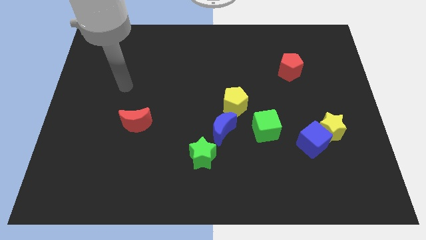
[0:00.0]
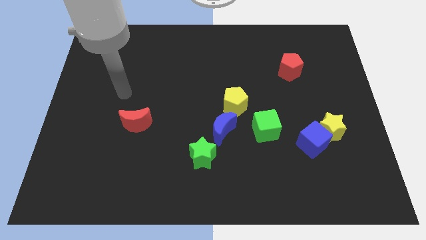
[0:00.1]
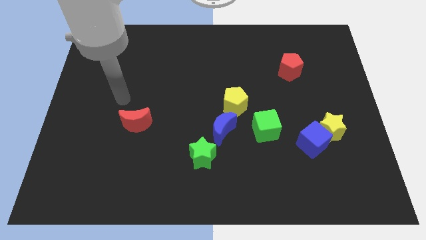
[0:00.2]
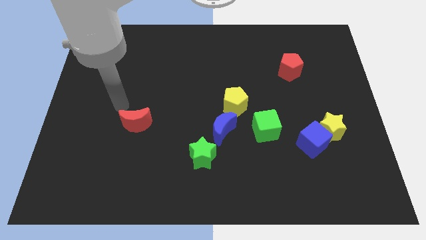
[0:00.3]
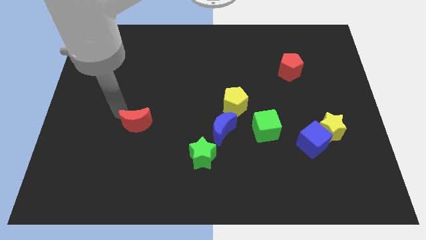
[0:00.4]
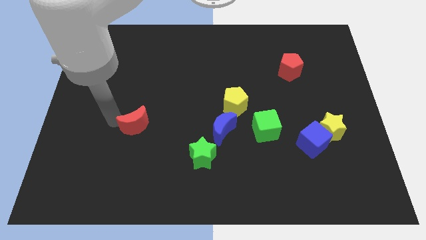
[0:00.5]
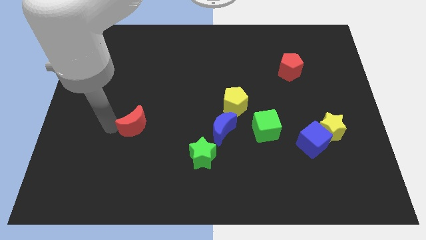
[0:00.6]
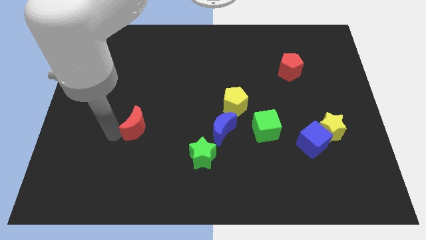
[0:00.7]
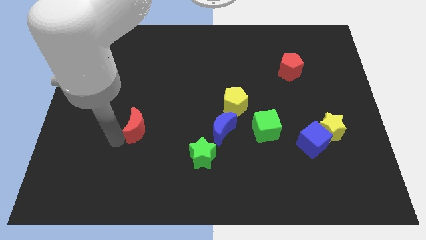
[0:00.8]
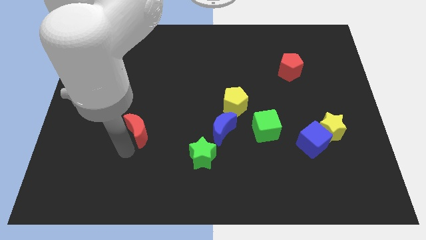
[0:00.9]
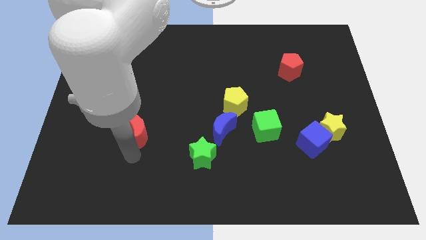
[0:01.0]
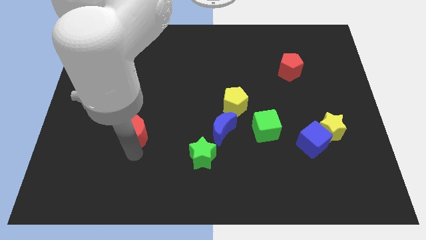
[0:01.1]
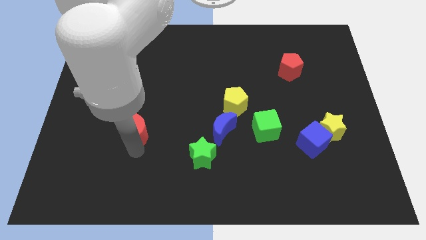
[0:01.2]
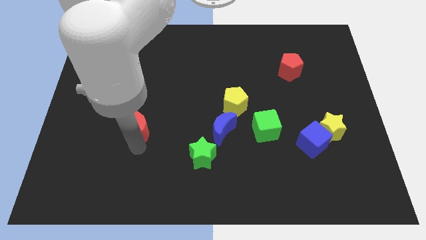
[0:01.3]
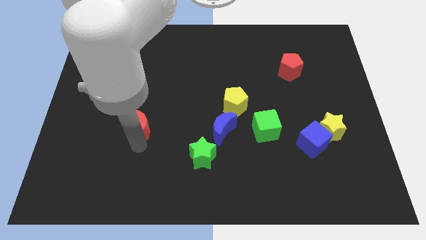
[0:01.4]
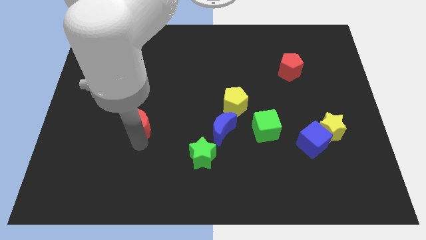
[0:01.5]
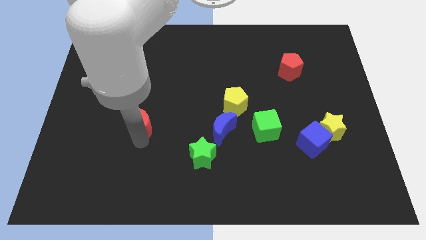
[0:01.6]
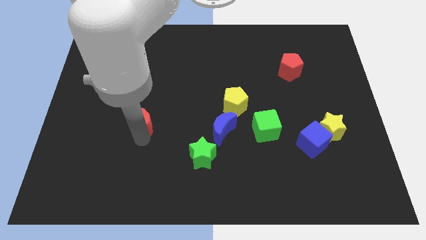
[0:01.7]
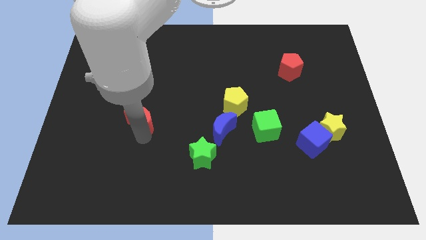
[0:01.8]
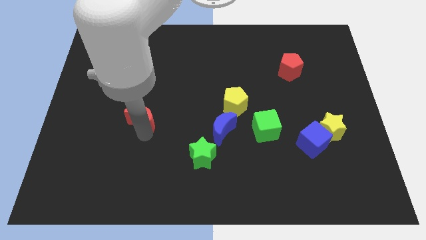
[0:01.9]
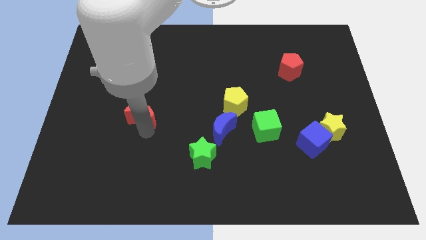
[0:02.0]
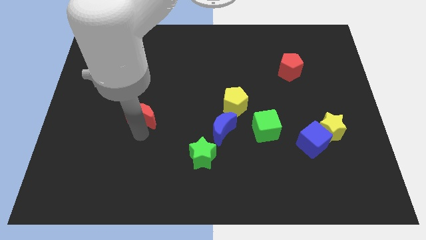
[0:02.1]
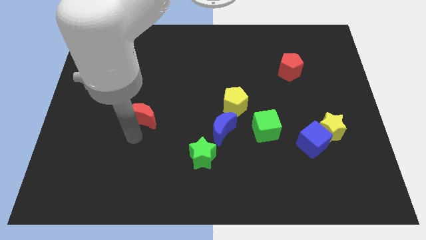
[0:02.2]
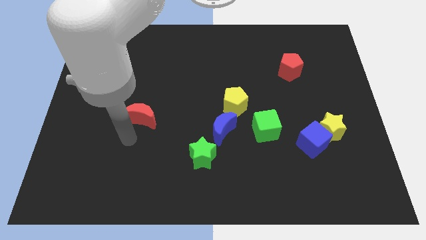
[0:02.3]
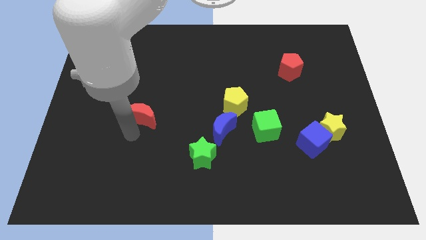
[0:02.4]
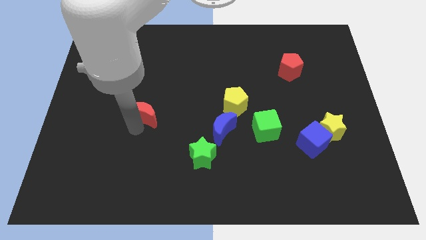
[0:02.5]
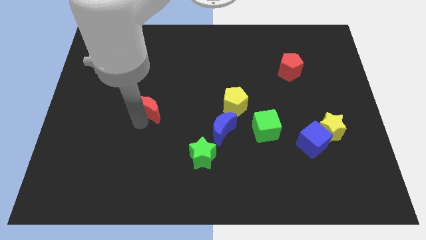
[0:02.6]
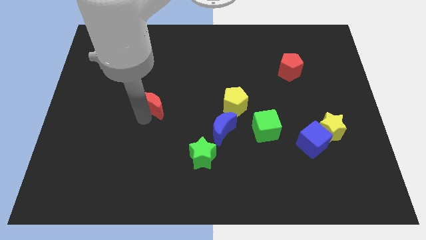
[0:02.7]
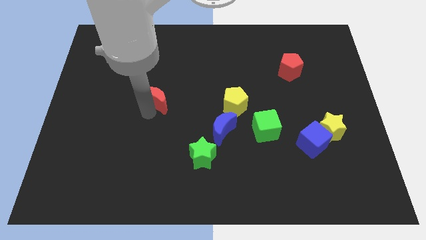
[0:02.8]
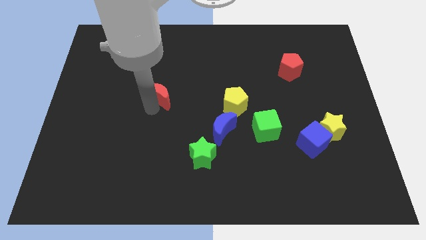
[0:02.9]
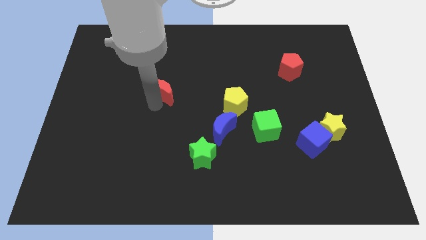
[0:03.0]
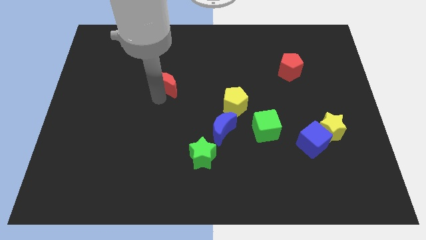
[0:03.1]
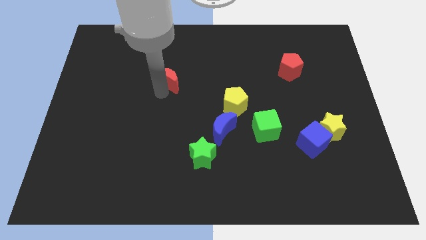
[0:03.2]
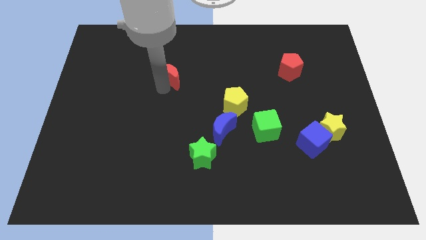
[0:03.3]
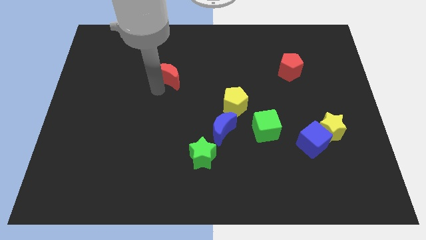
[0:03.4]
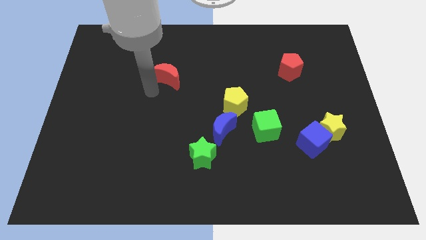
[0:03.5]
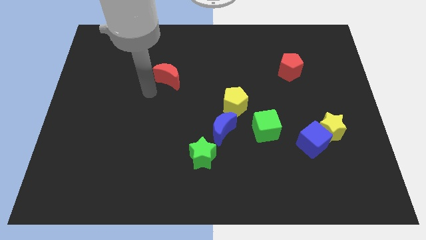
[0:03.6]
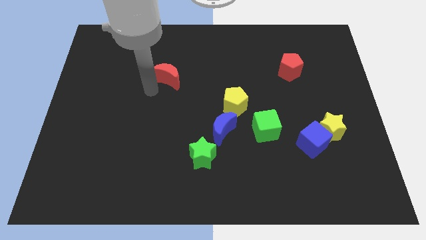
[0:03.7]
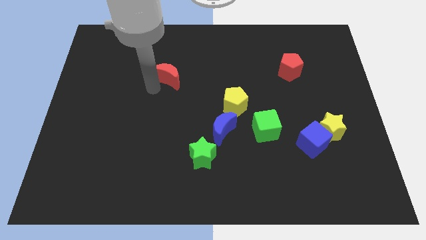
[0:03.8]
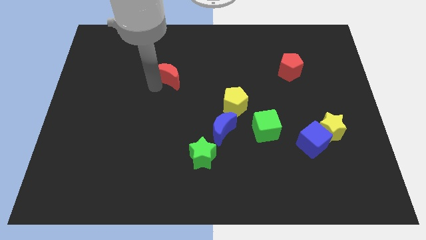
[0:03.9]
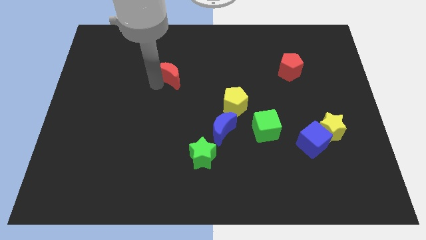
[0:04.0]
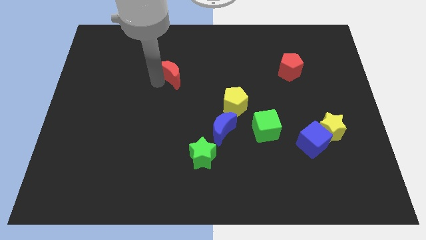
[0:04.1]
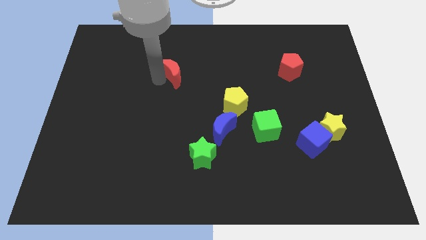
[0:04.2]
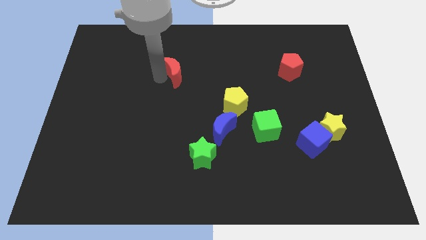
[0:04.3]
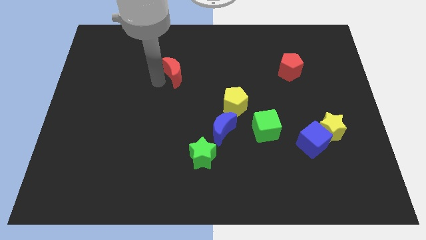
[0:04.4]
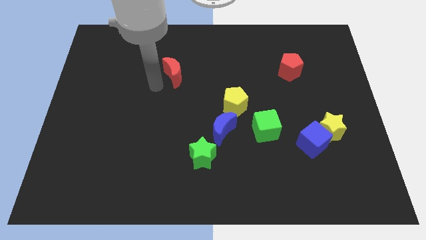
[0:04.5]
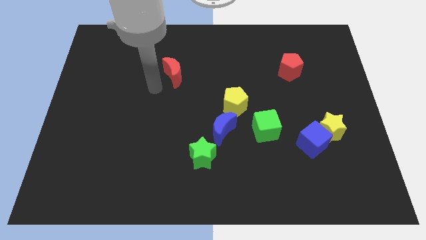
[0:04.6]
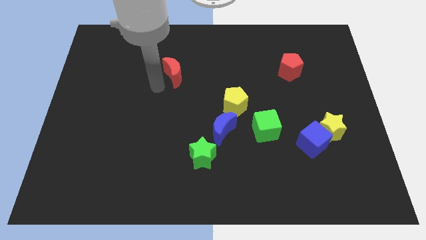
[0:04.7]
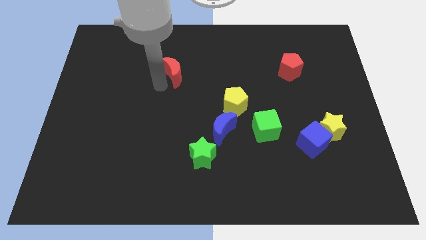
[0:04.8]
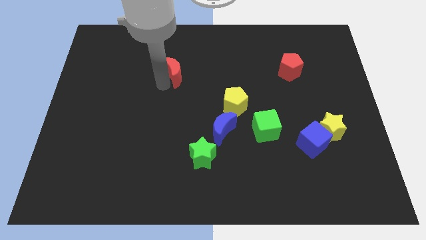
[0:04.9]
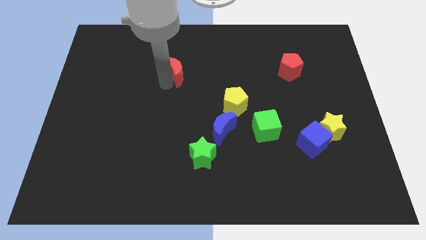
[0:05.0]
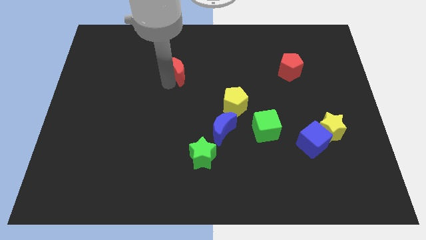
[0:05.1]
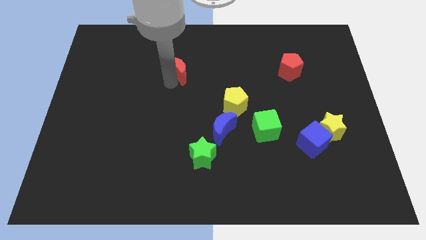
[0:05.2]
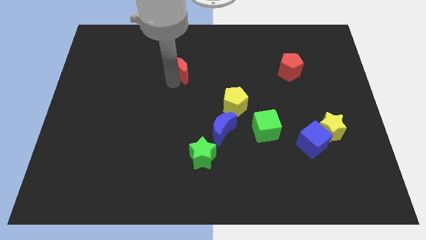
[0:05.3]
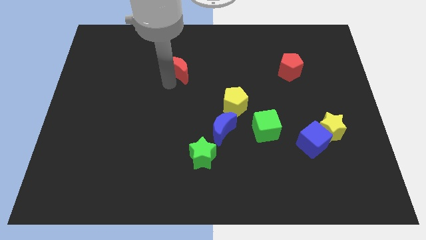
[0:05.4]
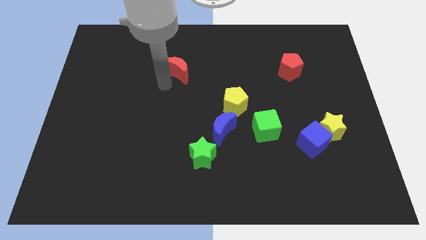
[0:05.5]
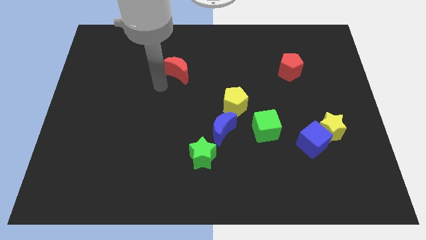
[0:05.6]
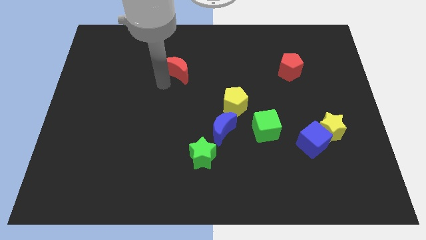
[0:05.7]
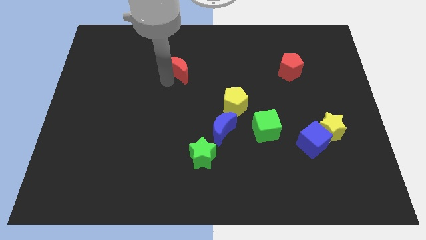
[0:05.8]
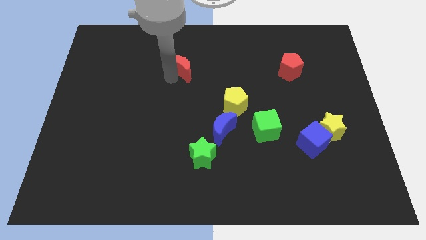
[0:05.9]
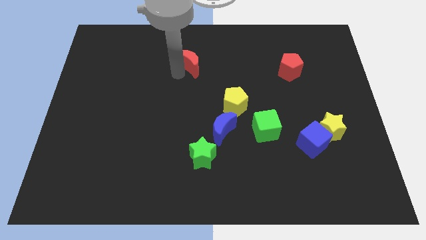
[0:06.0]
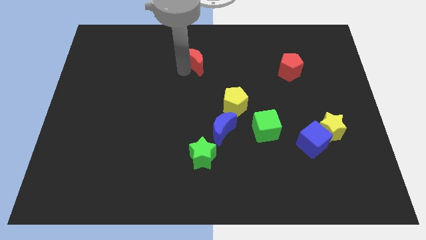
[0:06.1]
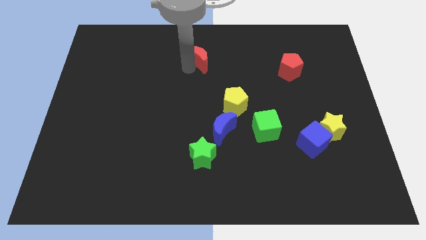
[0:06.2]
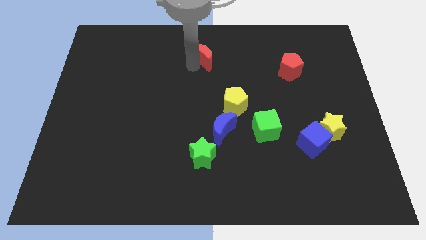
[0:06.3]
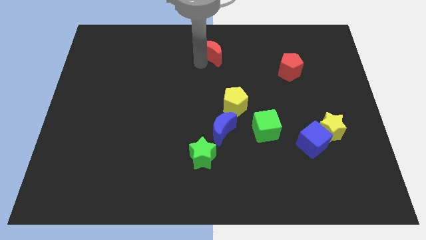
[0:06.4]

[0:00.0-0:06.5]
put the red moon to the top side
